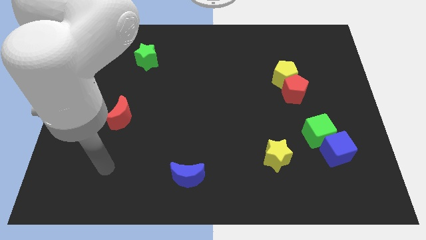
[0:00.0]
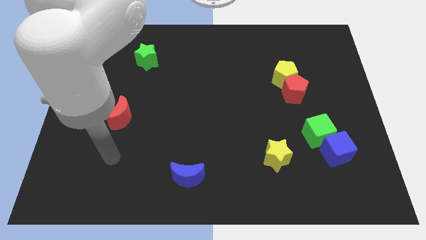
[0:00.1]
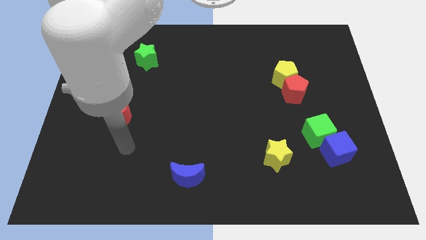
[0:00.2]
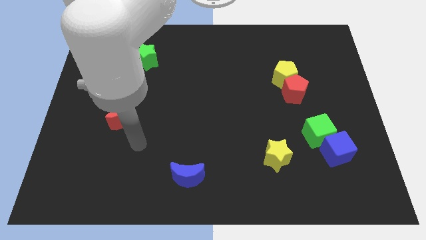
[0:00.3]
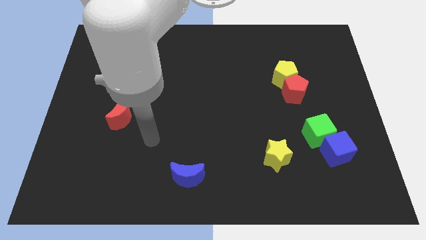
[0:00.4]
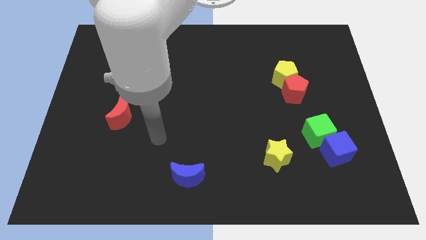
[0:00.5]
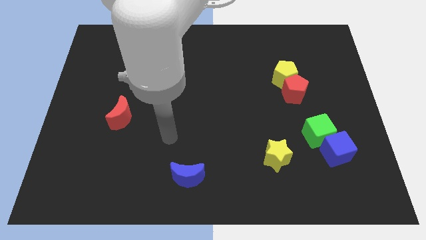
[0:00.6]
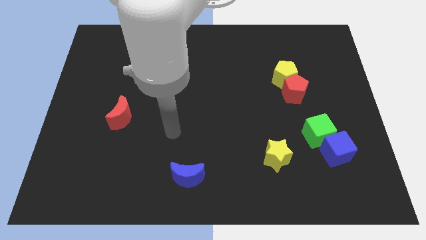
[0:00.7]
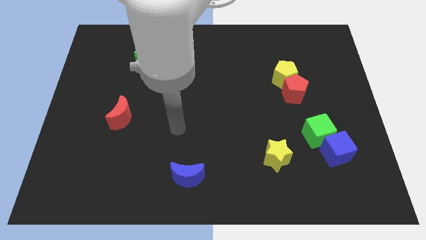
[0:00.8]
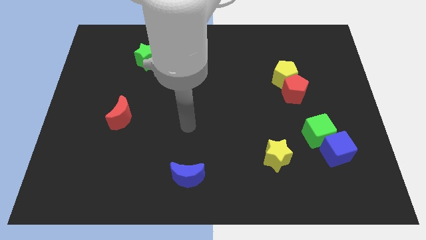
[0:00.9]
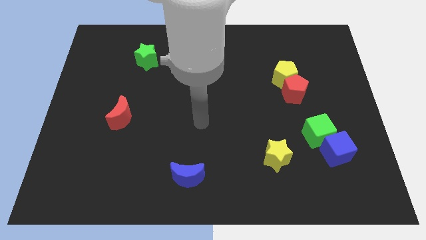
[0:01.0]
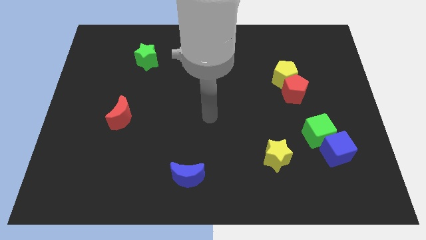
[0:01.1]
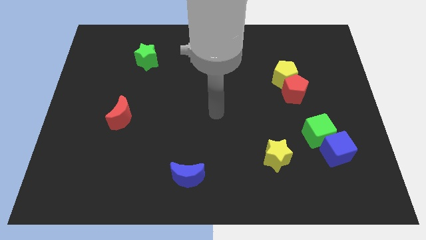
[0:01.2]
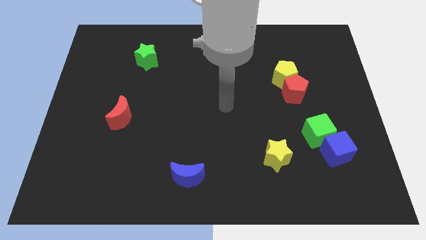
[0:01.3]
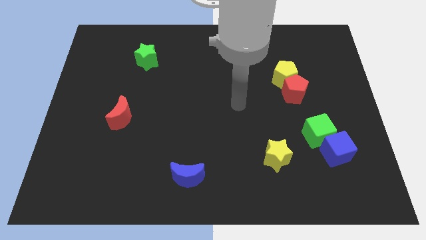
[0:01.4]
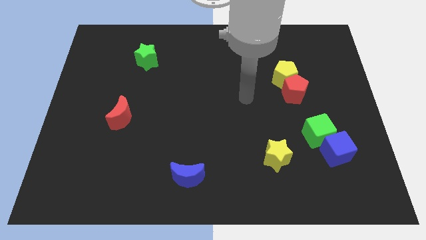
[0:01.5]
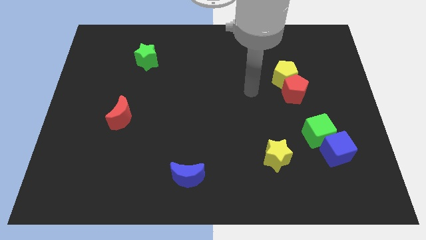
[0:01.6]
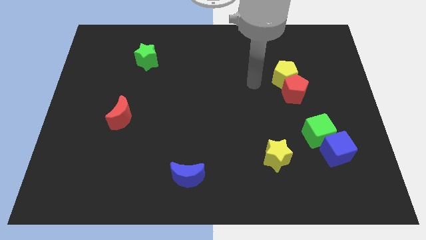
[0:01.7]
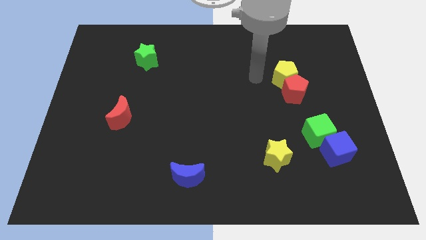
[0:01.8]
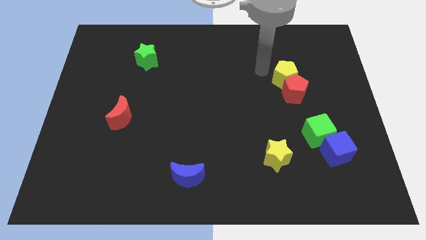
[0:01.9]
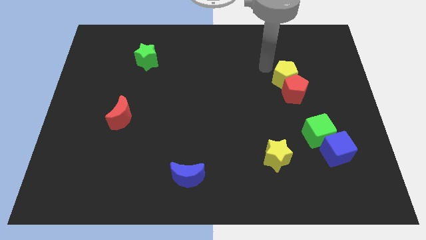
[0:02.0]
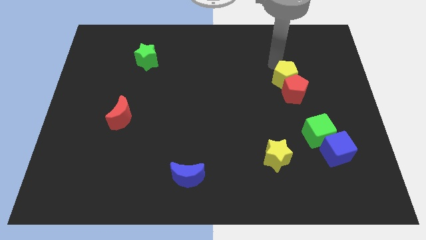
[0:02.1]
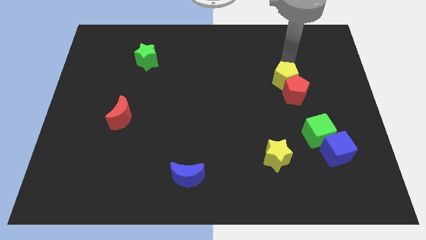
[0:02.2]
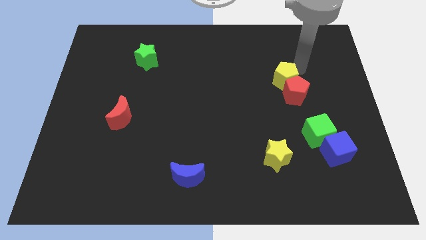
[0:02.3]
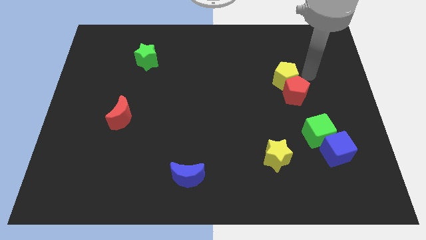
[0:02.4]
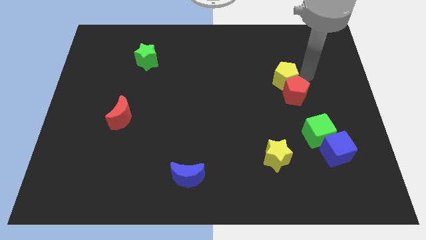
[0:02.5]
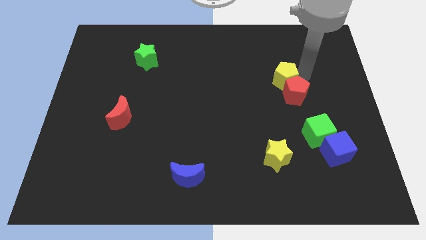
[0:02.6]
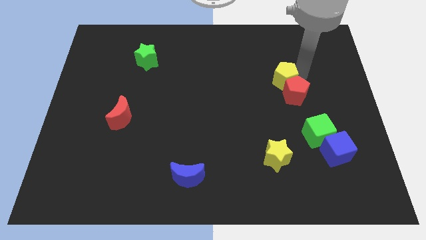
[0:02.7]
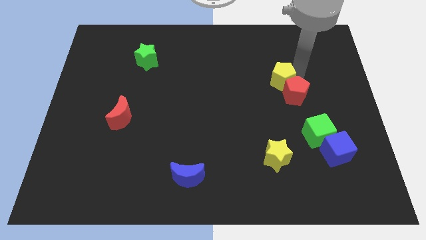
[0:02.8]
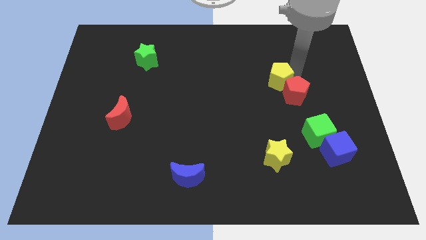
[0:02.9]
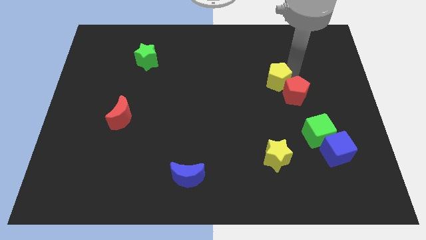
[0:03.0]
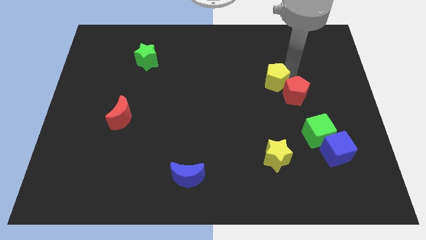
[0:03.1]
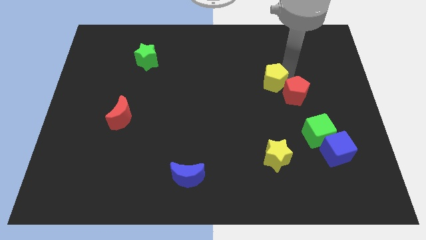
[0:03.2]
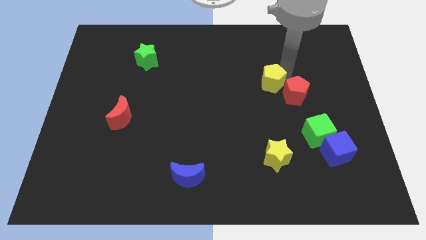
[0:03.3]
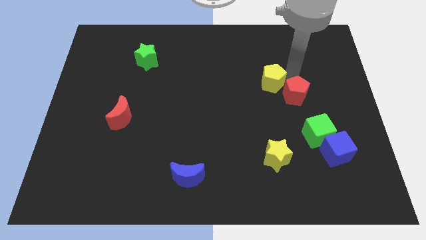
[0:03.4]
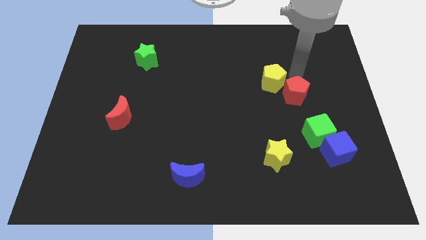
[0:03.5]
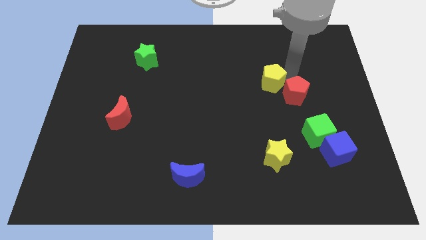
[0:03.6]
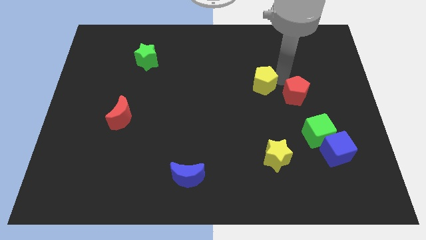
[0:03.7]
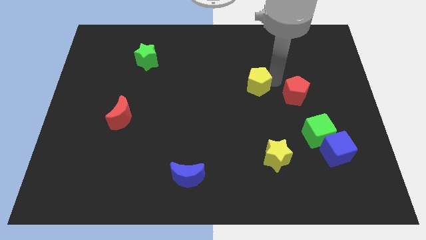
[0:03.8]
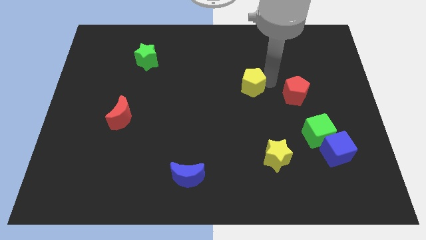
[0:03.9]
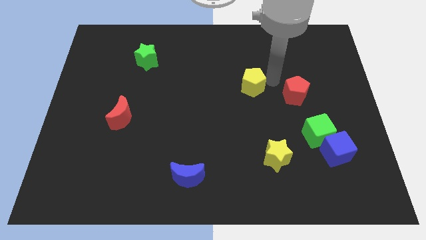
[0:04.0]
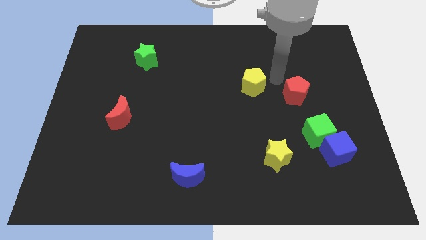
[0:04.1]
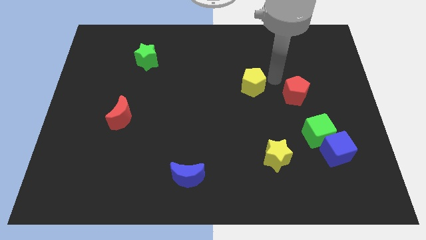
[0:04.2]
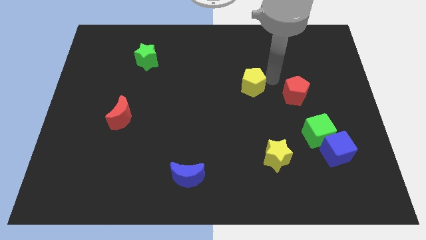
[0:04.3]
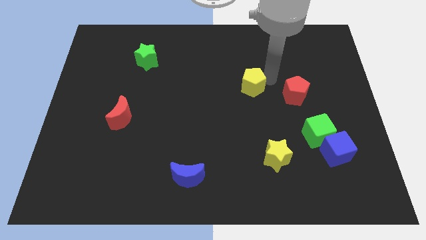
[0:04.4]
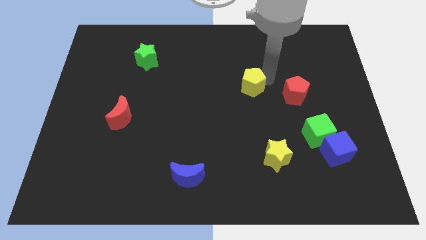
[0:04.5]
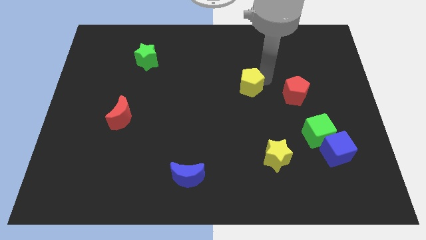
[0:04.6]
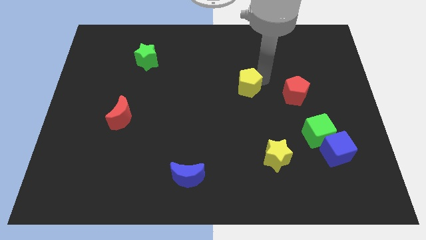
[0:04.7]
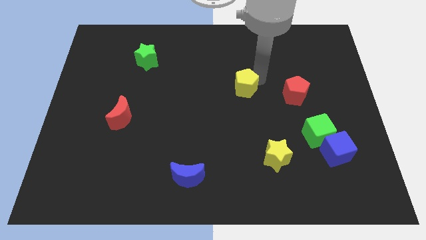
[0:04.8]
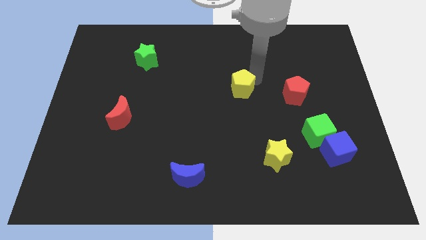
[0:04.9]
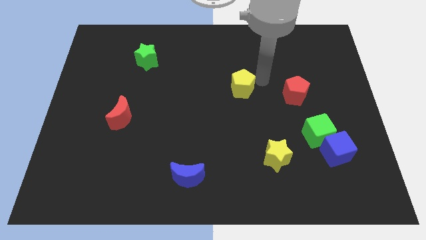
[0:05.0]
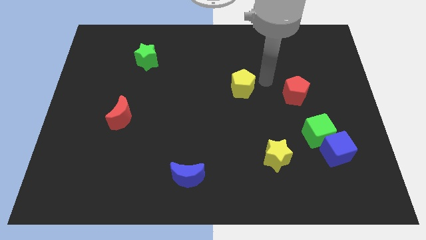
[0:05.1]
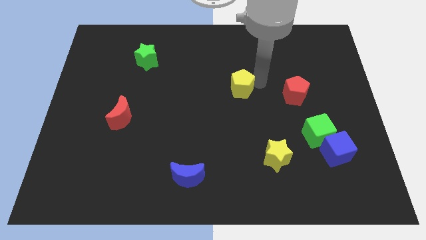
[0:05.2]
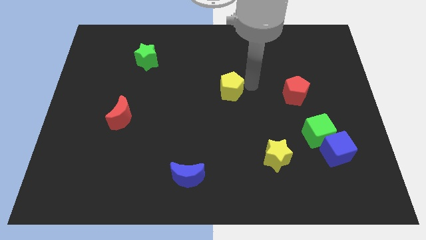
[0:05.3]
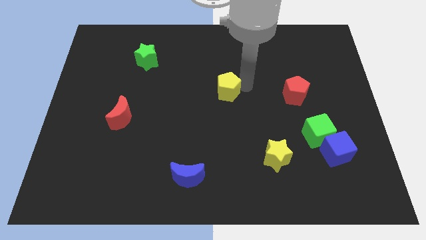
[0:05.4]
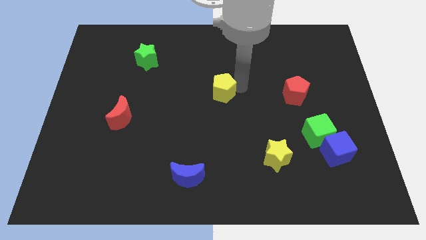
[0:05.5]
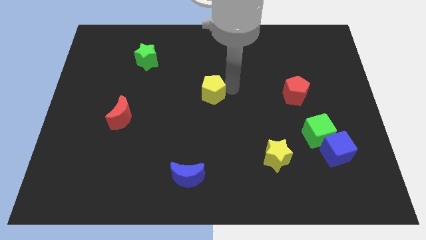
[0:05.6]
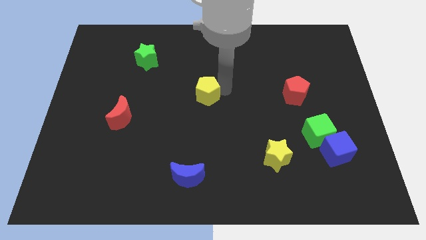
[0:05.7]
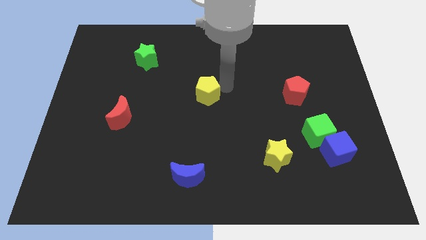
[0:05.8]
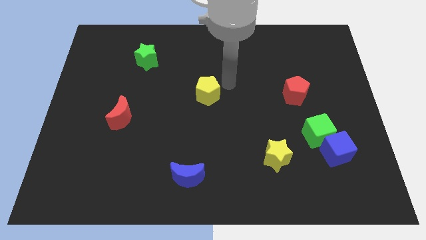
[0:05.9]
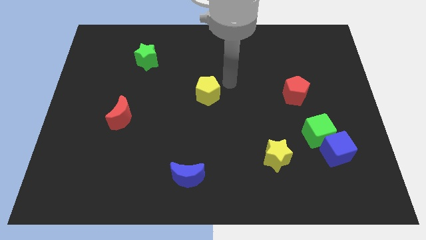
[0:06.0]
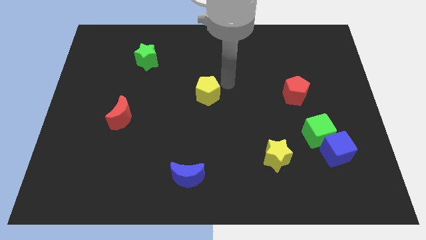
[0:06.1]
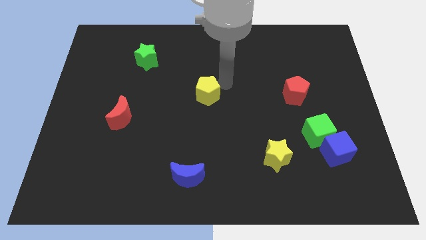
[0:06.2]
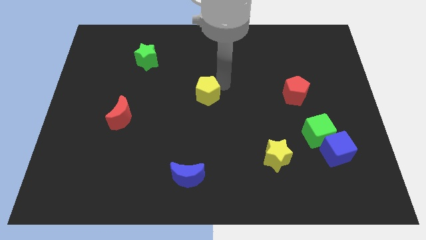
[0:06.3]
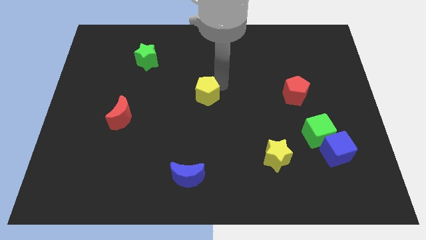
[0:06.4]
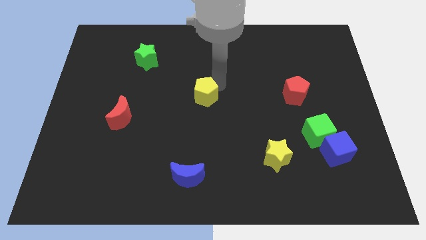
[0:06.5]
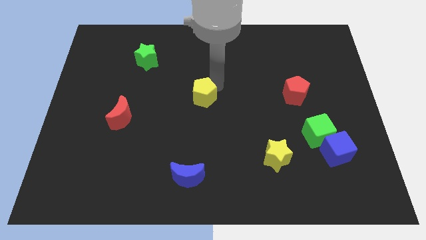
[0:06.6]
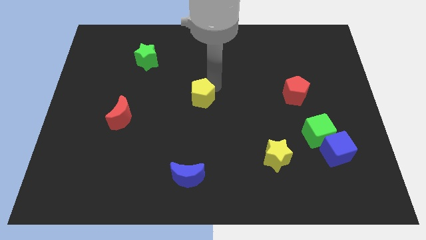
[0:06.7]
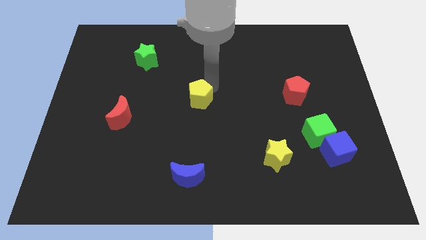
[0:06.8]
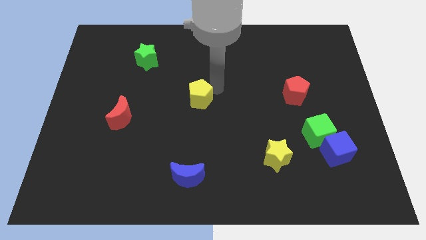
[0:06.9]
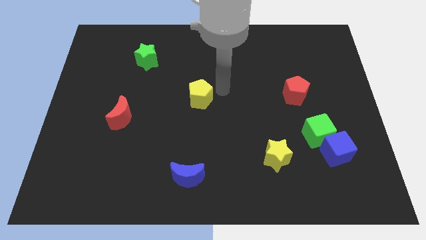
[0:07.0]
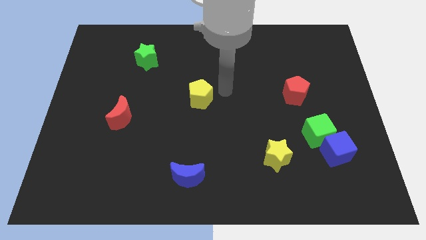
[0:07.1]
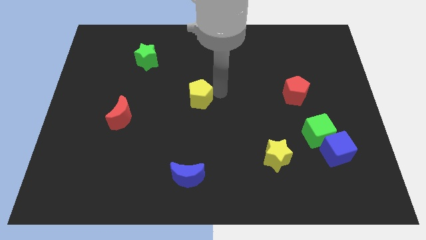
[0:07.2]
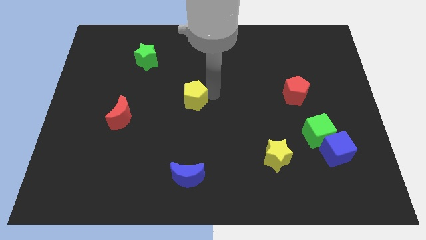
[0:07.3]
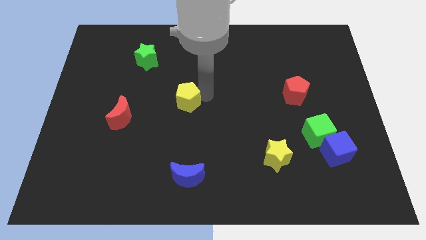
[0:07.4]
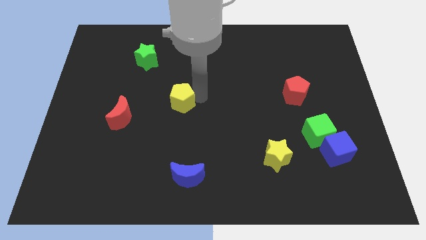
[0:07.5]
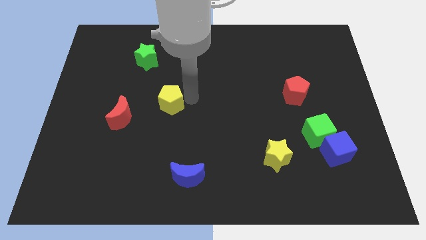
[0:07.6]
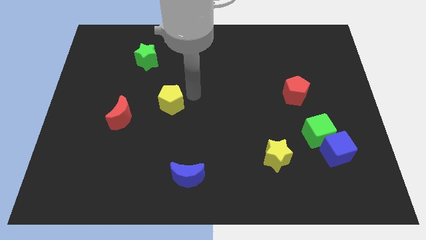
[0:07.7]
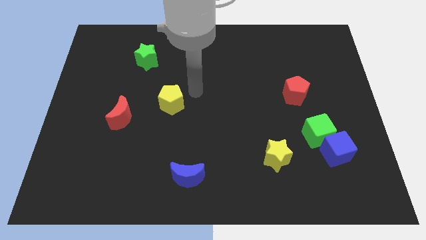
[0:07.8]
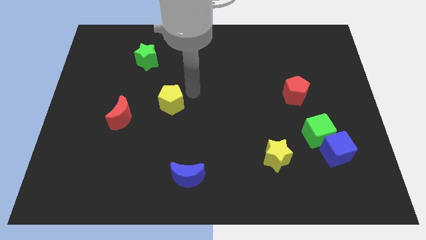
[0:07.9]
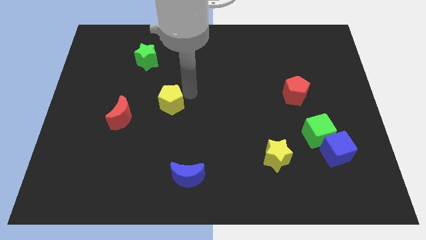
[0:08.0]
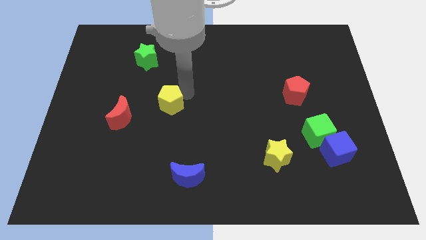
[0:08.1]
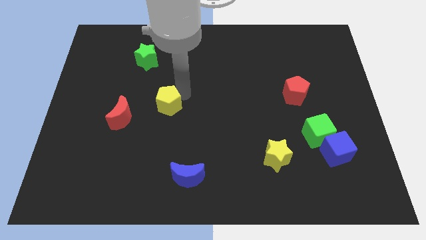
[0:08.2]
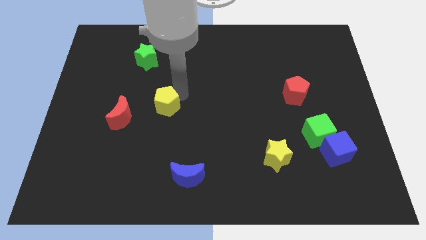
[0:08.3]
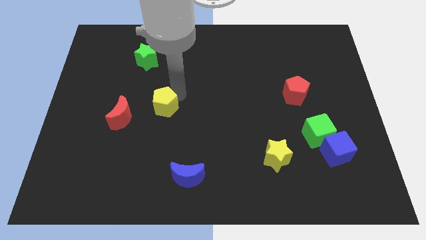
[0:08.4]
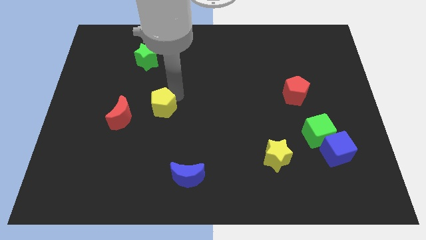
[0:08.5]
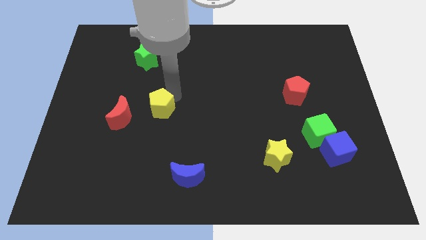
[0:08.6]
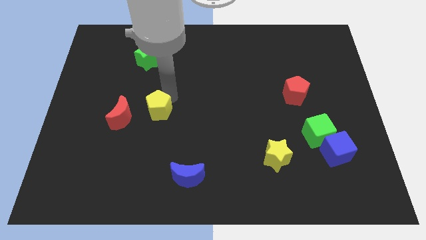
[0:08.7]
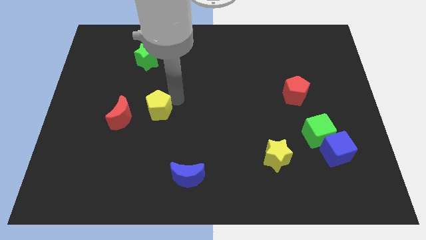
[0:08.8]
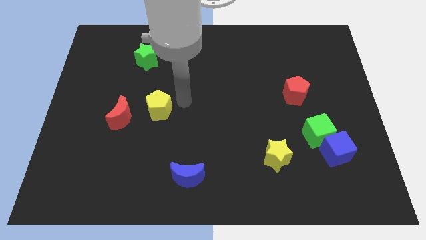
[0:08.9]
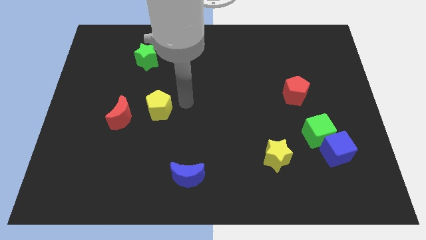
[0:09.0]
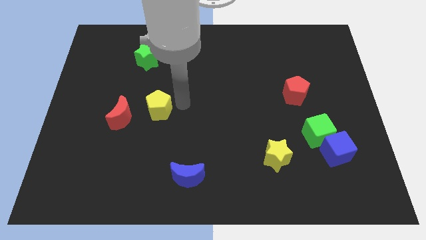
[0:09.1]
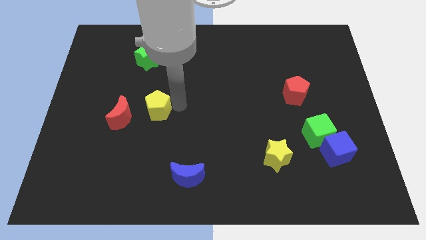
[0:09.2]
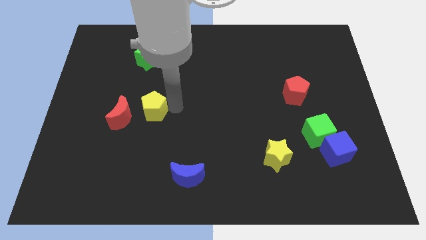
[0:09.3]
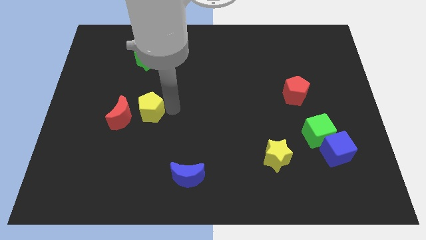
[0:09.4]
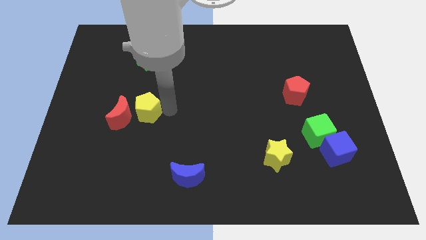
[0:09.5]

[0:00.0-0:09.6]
slide the yellow pentagon to the red moon
